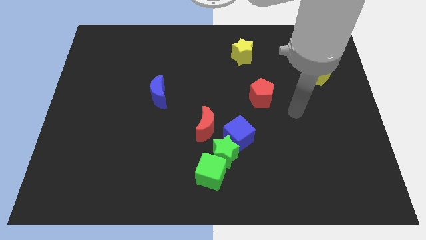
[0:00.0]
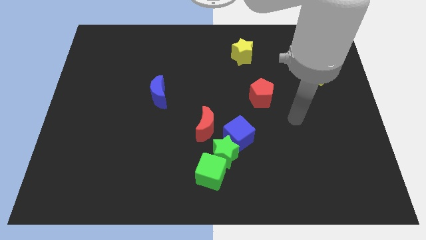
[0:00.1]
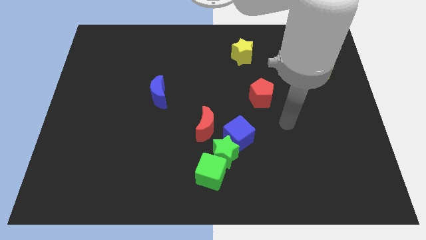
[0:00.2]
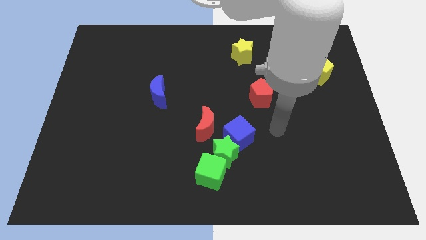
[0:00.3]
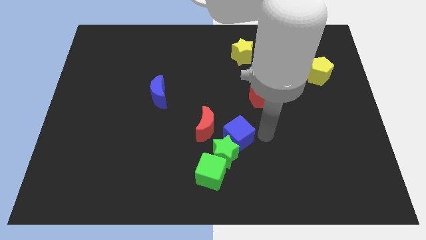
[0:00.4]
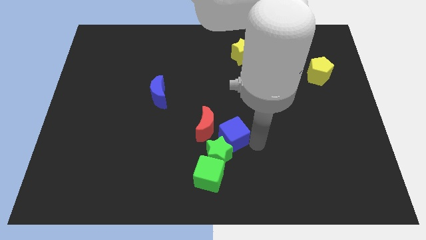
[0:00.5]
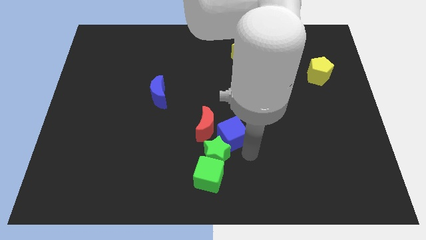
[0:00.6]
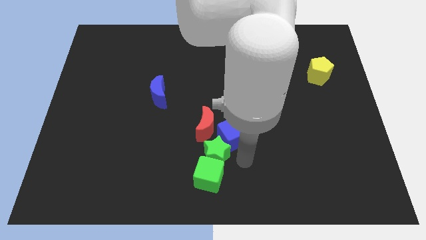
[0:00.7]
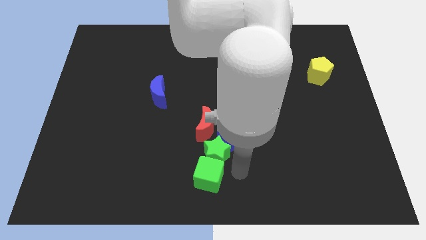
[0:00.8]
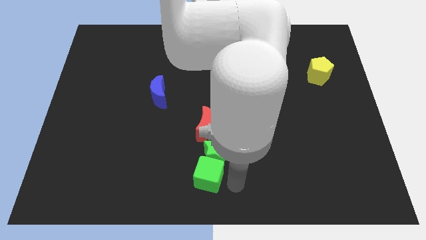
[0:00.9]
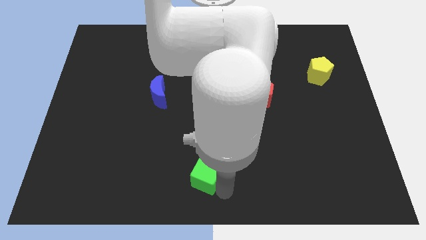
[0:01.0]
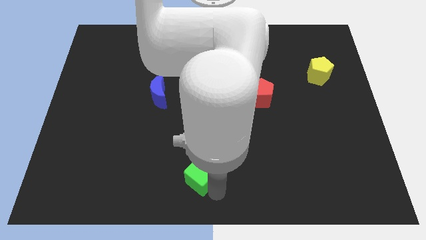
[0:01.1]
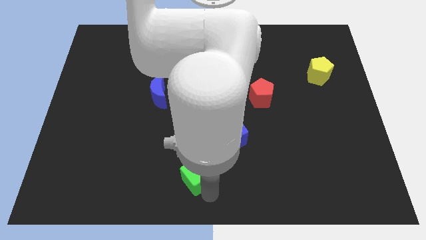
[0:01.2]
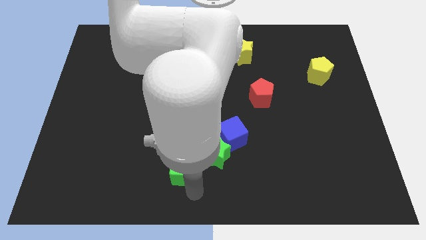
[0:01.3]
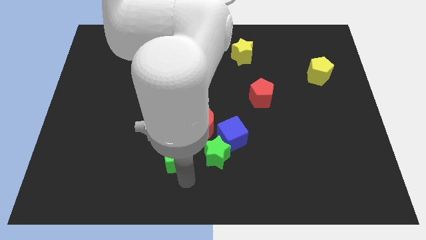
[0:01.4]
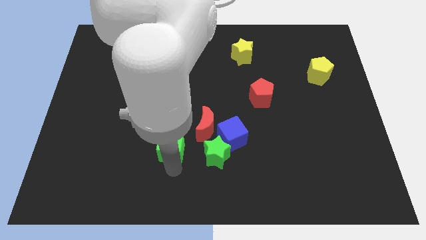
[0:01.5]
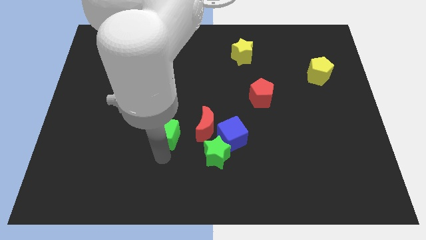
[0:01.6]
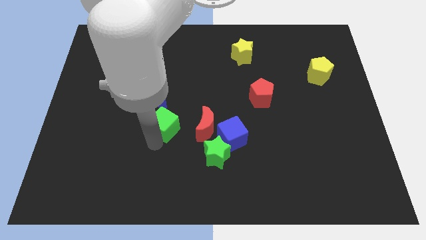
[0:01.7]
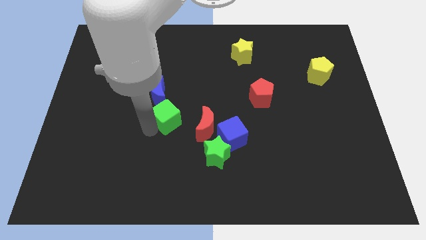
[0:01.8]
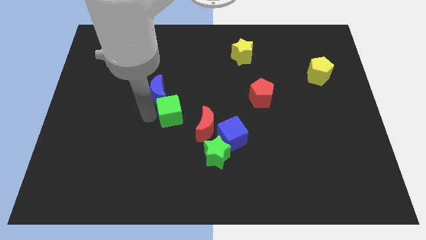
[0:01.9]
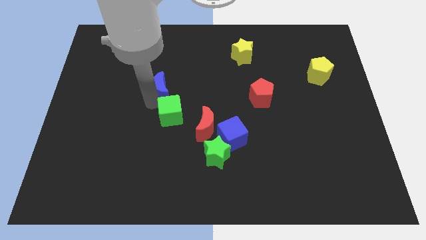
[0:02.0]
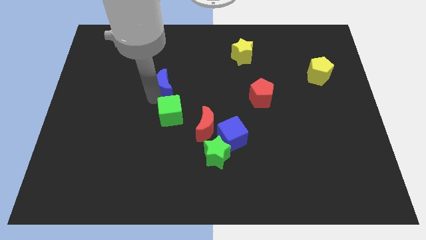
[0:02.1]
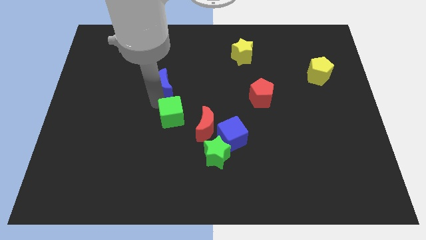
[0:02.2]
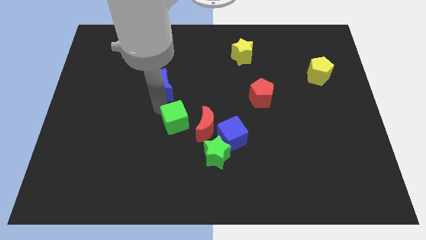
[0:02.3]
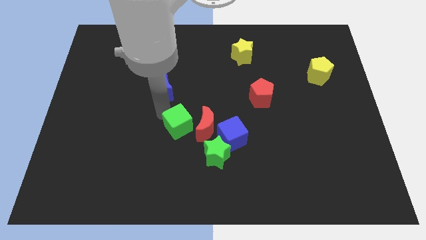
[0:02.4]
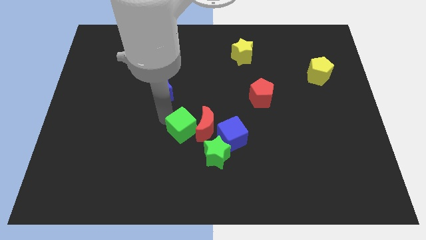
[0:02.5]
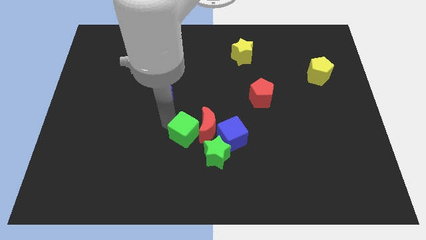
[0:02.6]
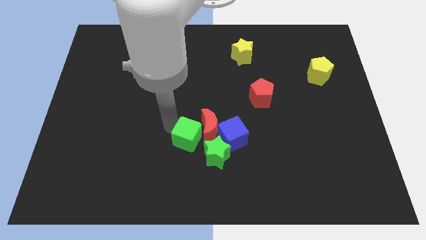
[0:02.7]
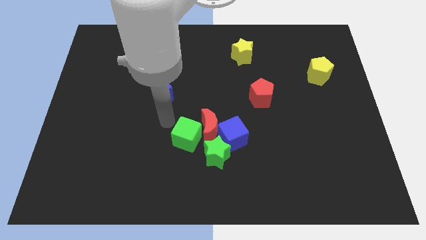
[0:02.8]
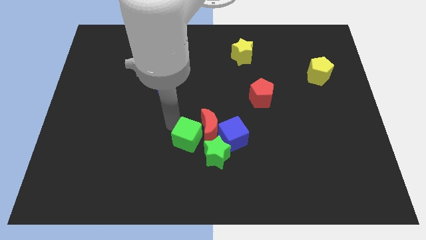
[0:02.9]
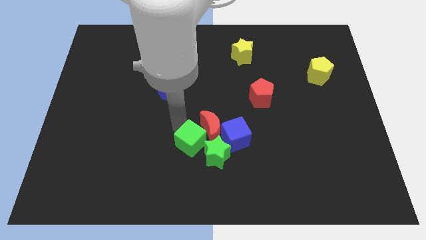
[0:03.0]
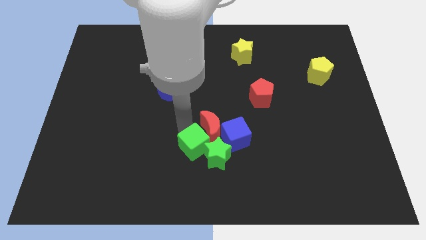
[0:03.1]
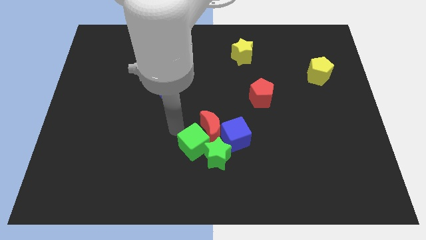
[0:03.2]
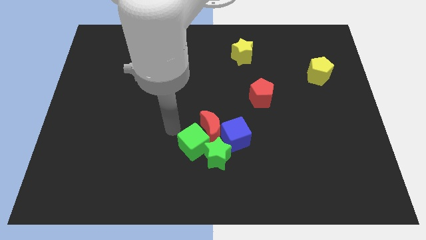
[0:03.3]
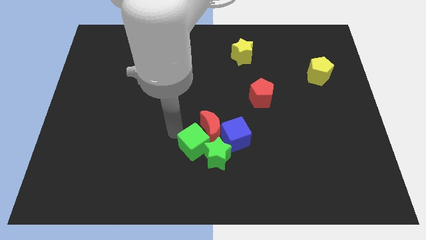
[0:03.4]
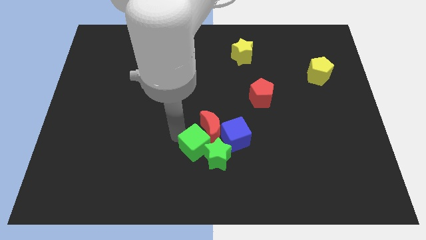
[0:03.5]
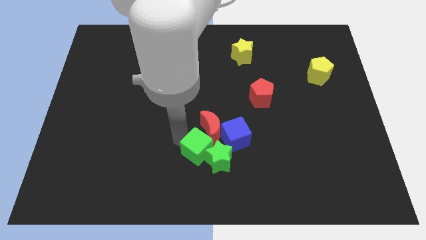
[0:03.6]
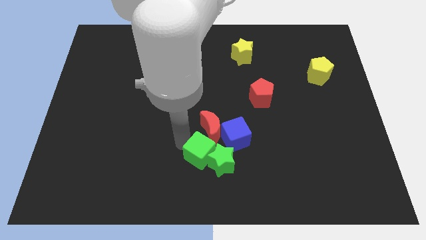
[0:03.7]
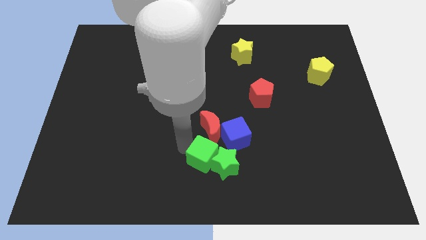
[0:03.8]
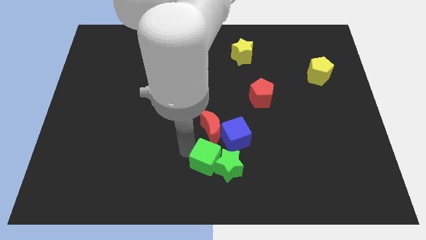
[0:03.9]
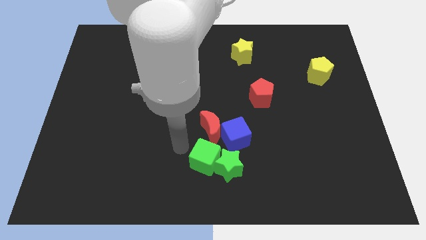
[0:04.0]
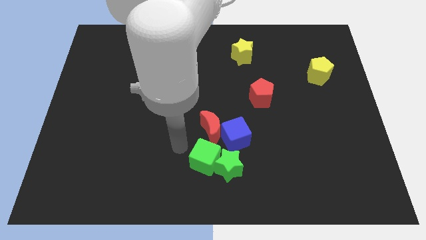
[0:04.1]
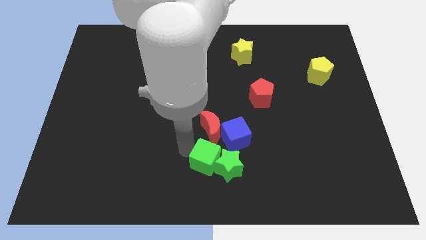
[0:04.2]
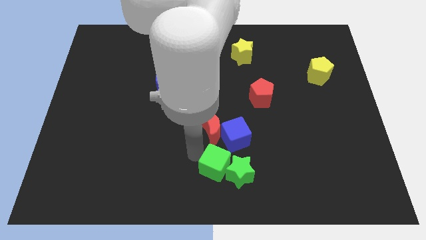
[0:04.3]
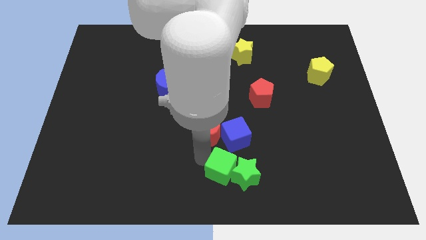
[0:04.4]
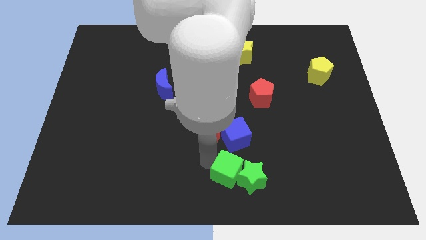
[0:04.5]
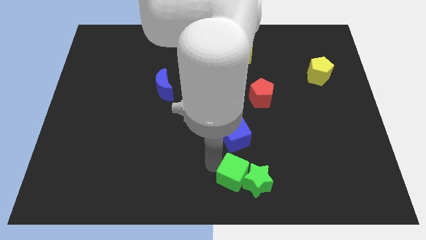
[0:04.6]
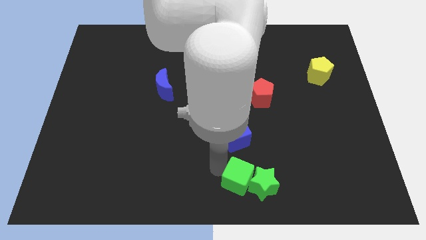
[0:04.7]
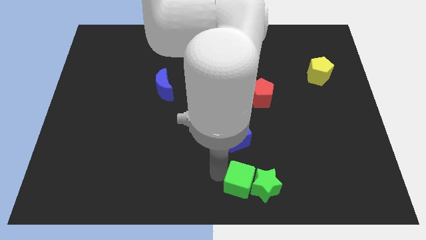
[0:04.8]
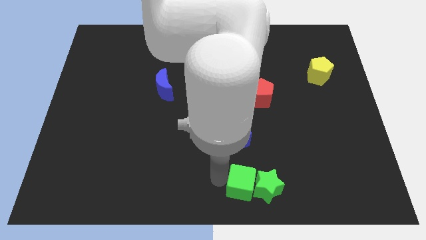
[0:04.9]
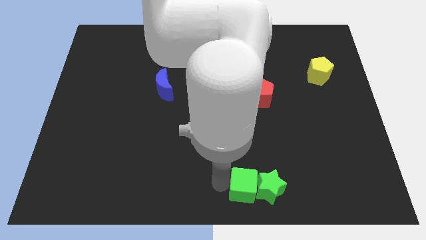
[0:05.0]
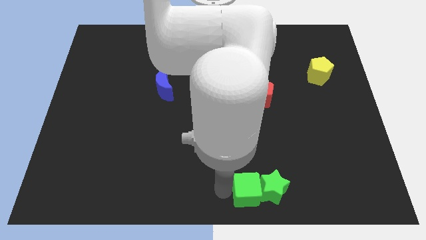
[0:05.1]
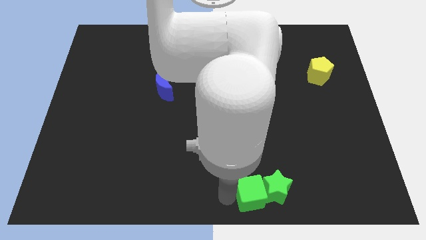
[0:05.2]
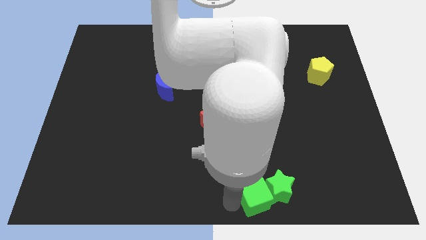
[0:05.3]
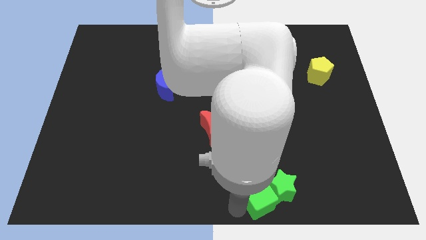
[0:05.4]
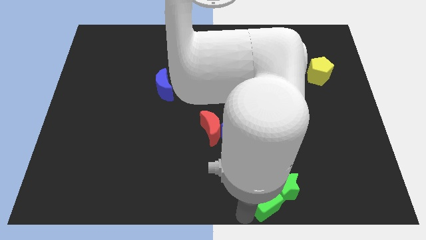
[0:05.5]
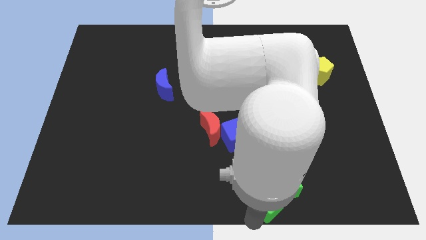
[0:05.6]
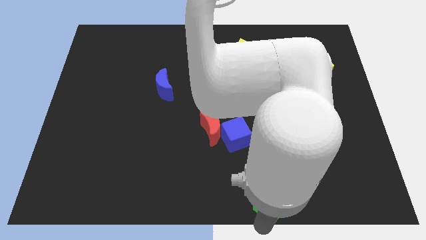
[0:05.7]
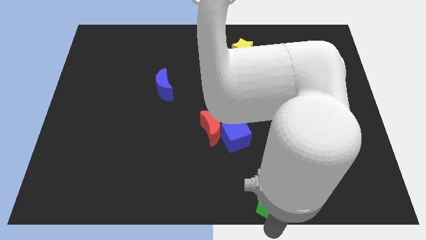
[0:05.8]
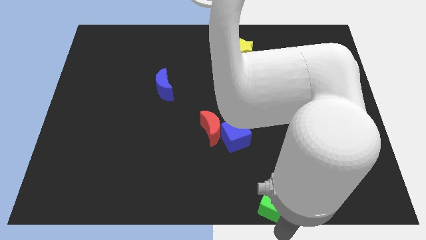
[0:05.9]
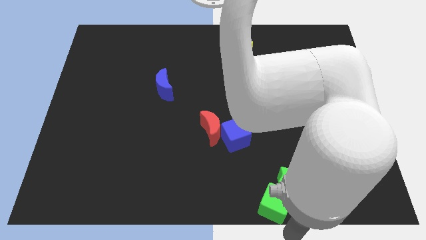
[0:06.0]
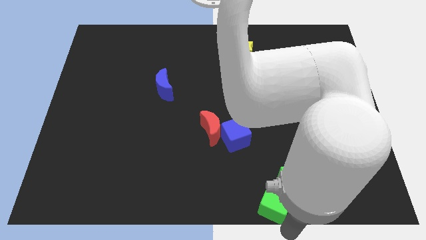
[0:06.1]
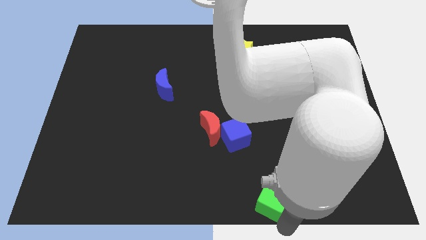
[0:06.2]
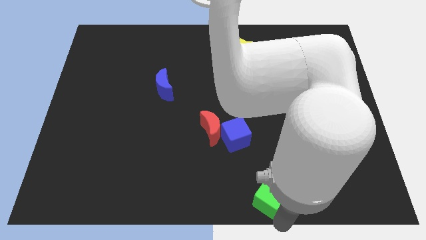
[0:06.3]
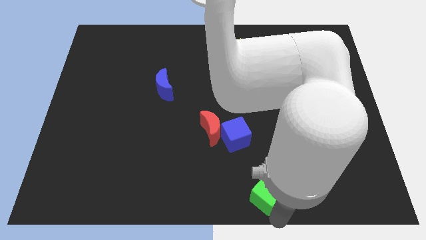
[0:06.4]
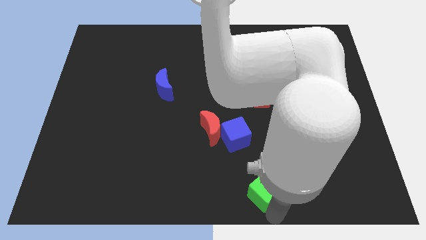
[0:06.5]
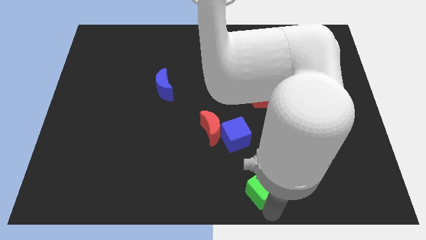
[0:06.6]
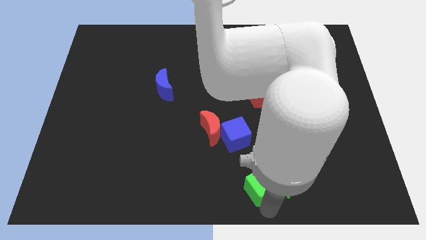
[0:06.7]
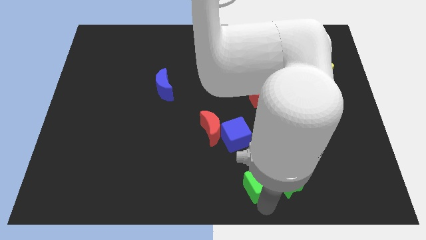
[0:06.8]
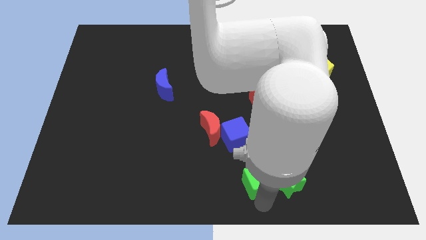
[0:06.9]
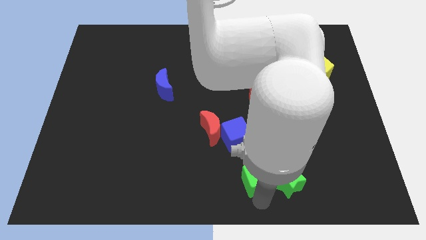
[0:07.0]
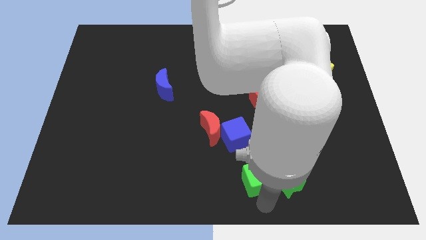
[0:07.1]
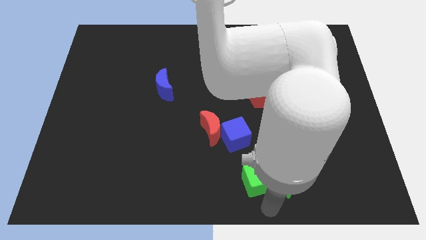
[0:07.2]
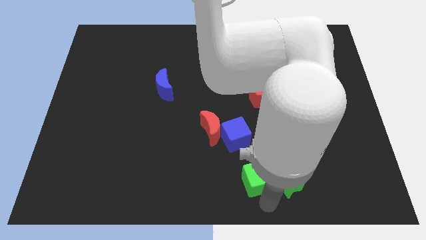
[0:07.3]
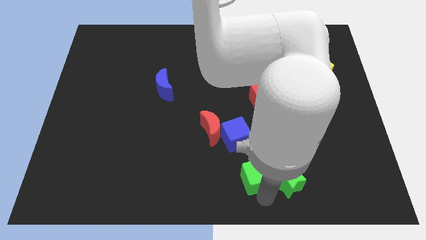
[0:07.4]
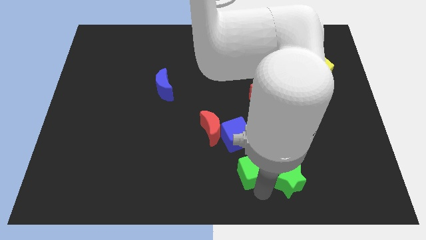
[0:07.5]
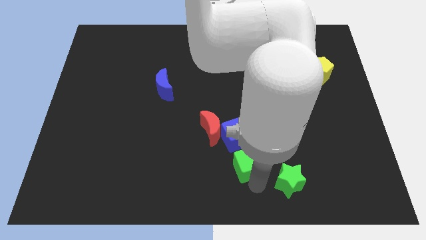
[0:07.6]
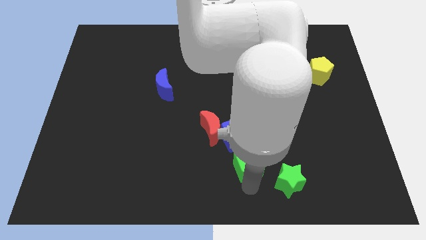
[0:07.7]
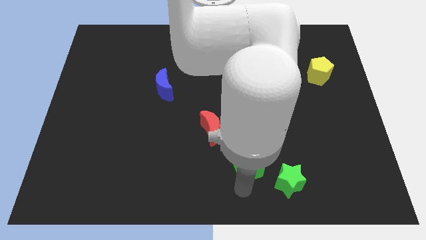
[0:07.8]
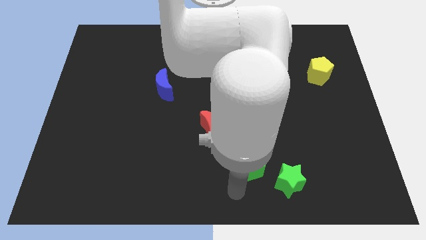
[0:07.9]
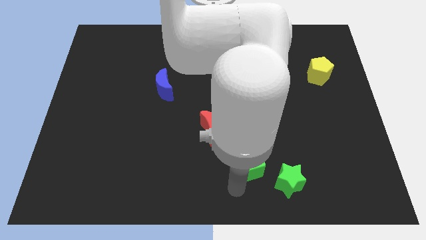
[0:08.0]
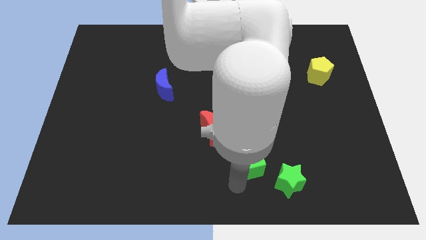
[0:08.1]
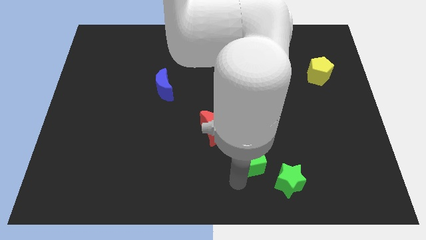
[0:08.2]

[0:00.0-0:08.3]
push the green cube diagonally up and to the right a little
